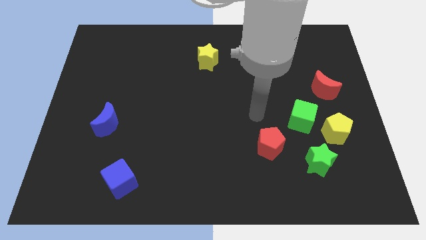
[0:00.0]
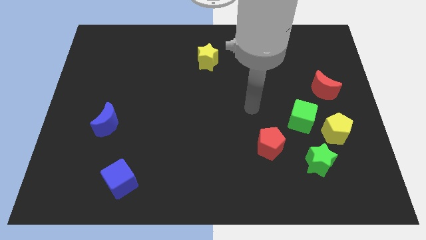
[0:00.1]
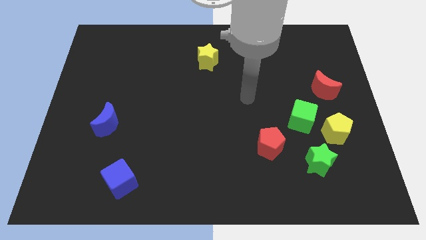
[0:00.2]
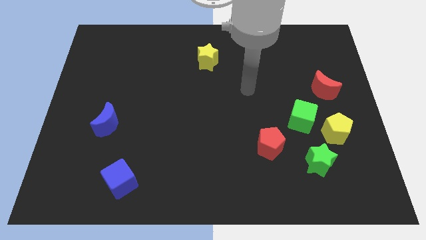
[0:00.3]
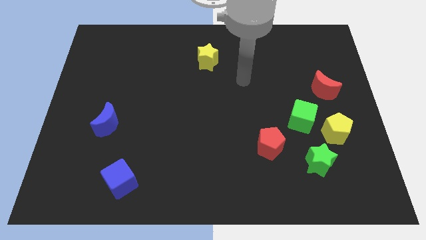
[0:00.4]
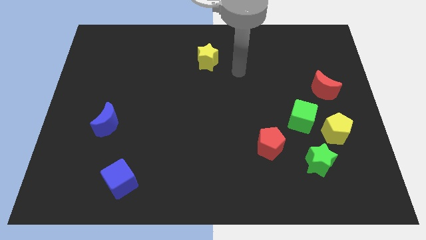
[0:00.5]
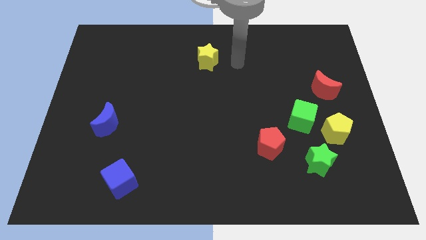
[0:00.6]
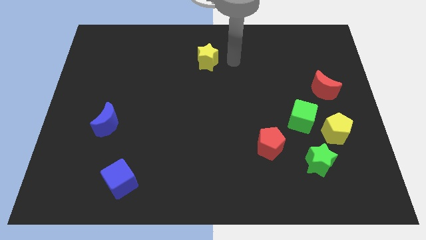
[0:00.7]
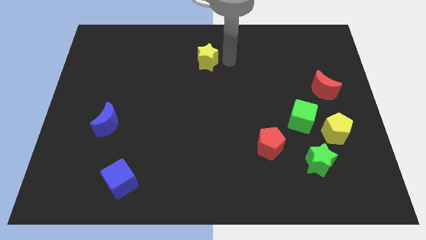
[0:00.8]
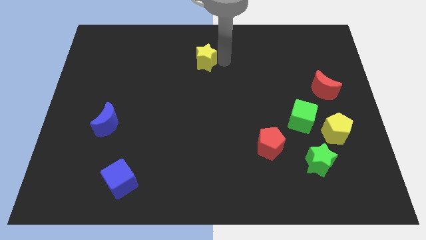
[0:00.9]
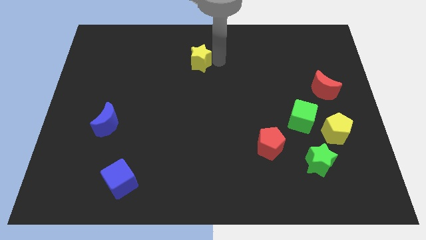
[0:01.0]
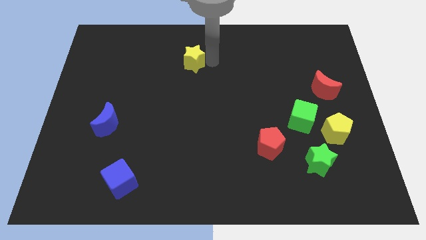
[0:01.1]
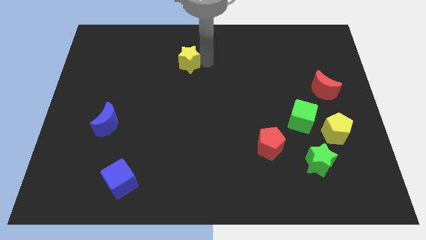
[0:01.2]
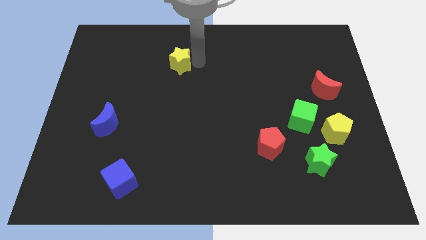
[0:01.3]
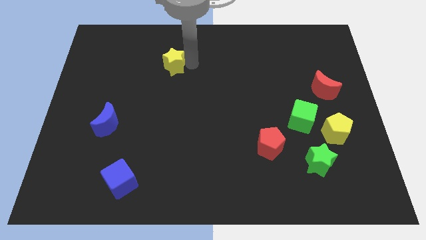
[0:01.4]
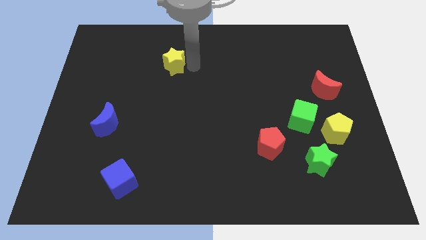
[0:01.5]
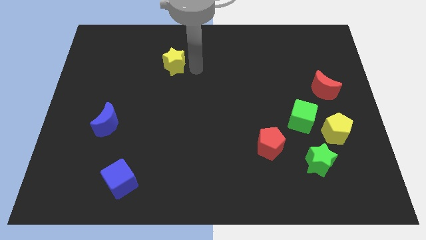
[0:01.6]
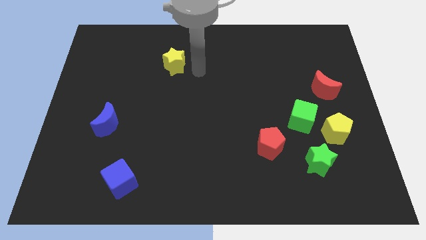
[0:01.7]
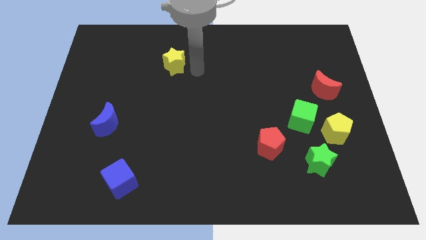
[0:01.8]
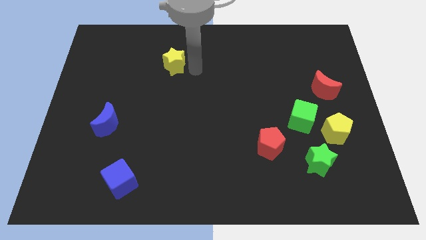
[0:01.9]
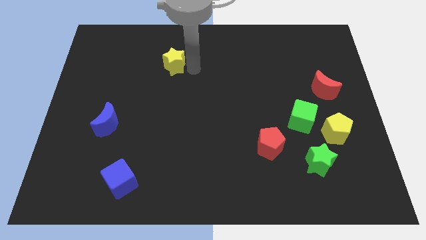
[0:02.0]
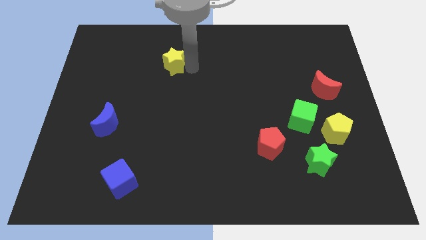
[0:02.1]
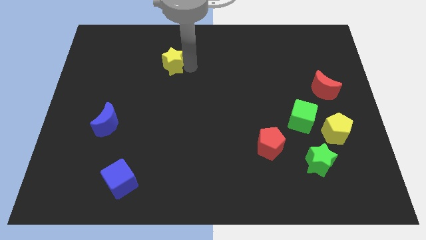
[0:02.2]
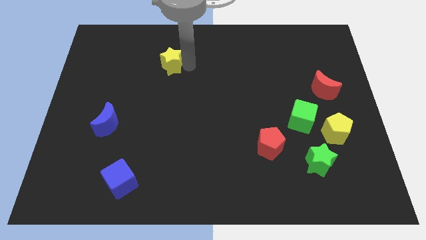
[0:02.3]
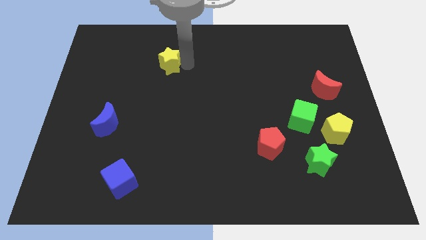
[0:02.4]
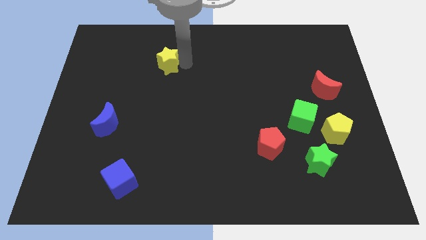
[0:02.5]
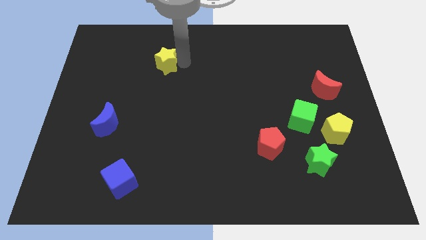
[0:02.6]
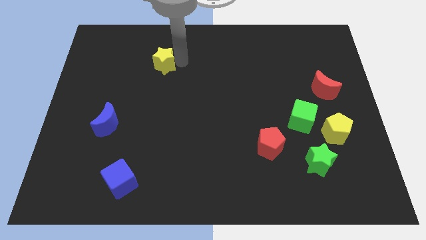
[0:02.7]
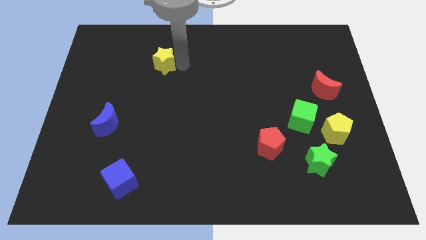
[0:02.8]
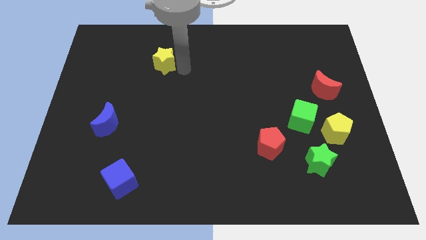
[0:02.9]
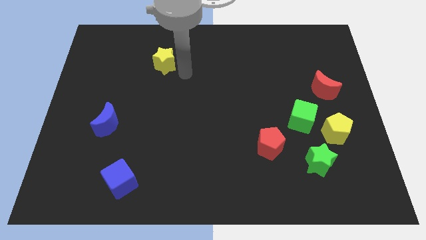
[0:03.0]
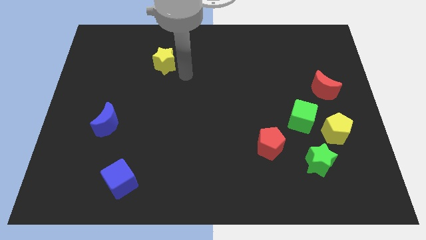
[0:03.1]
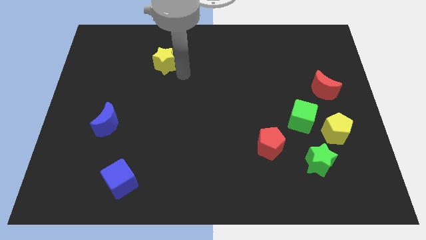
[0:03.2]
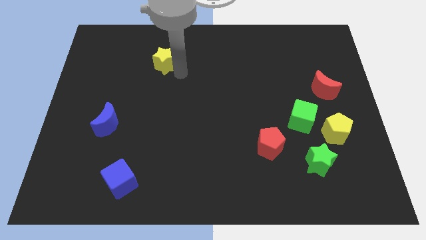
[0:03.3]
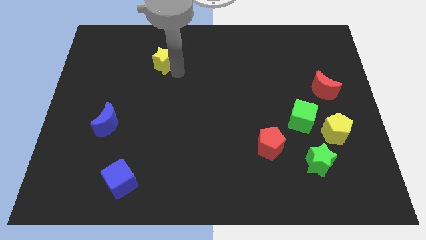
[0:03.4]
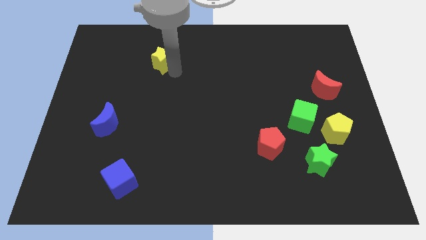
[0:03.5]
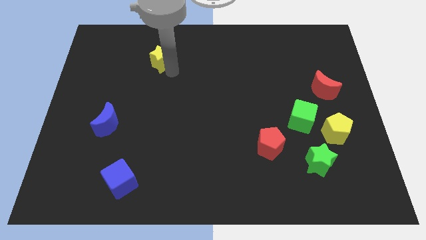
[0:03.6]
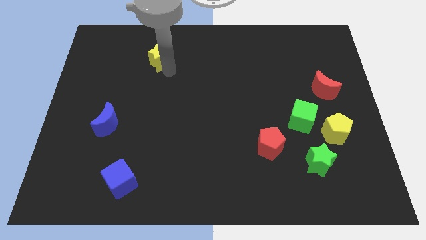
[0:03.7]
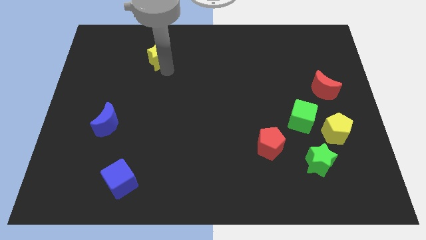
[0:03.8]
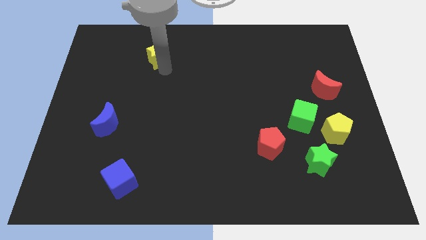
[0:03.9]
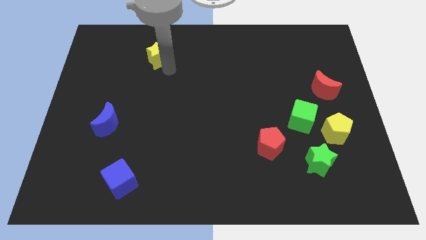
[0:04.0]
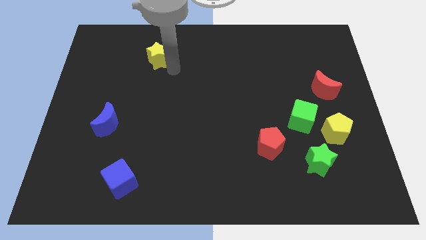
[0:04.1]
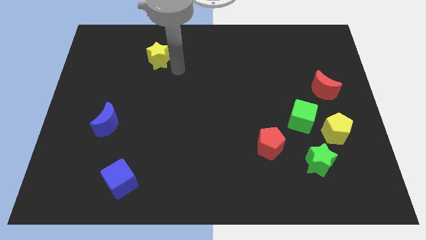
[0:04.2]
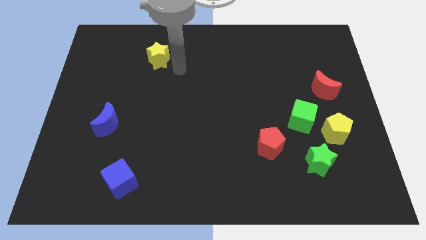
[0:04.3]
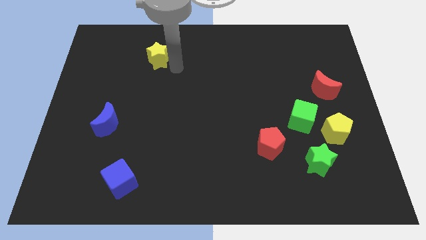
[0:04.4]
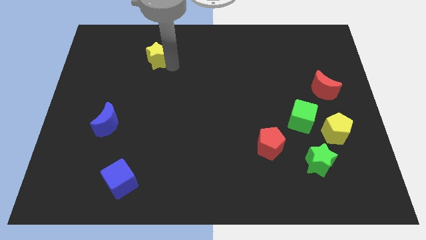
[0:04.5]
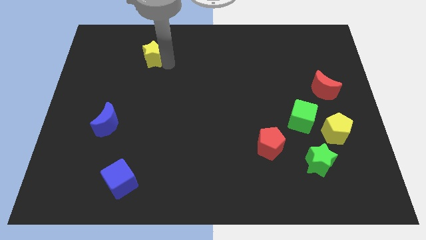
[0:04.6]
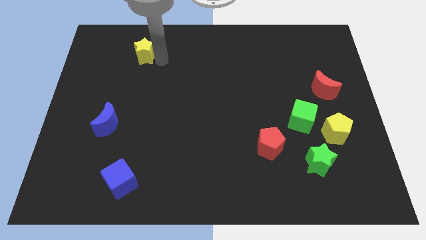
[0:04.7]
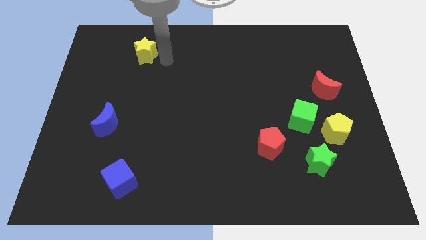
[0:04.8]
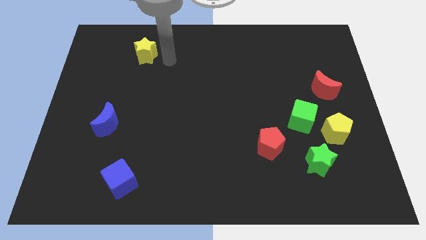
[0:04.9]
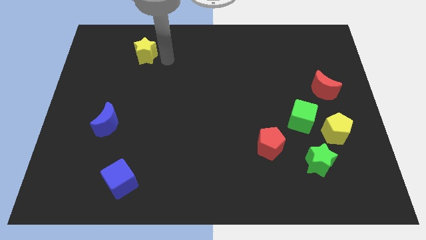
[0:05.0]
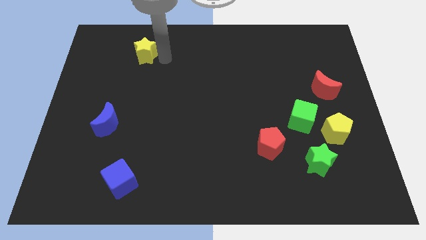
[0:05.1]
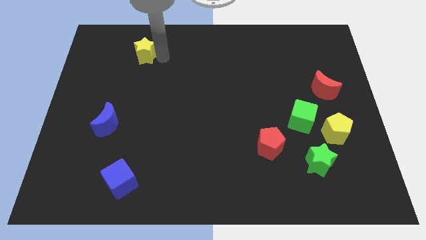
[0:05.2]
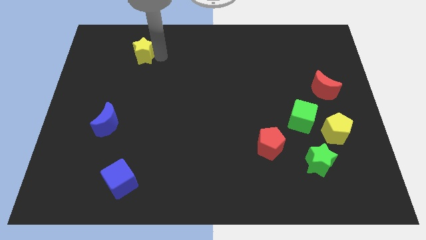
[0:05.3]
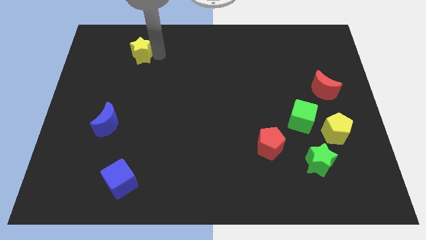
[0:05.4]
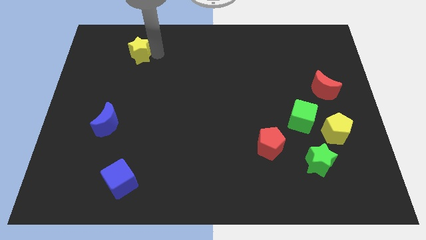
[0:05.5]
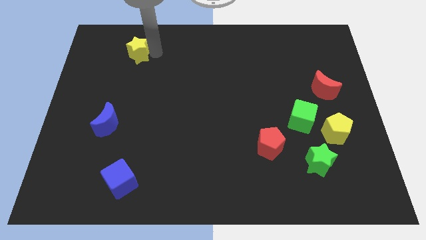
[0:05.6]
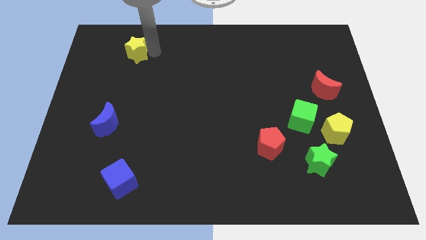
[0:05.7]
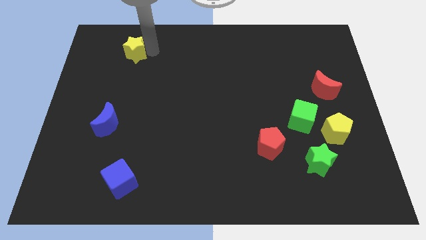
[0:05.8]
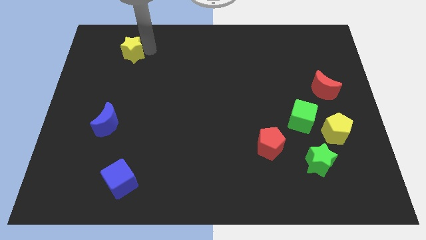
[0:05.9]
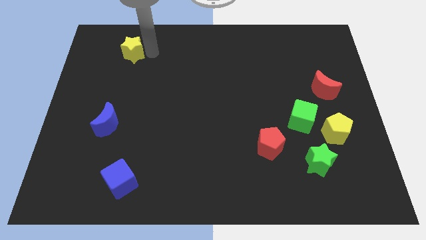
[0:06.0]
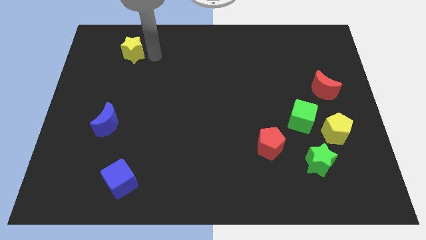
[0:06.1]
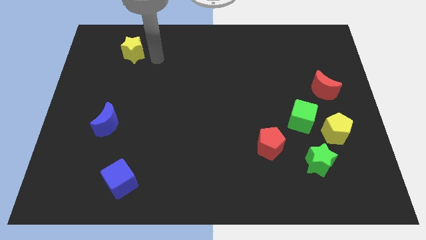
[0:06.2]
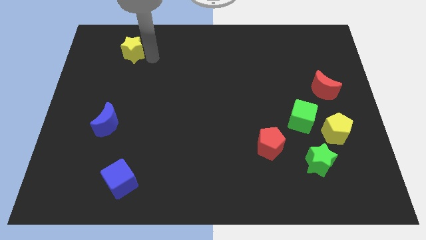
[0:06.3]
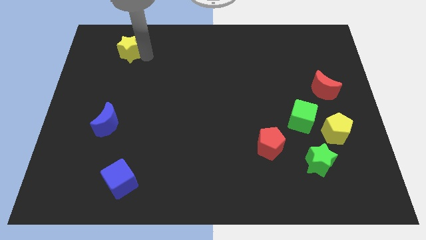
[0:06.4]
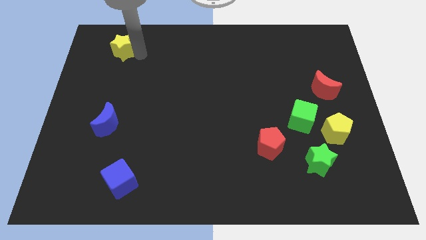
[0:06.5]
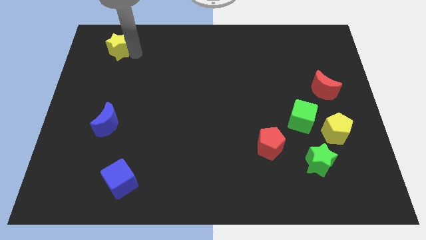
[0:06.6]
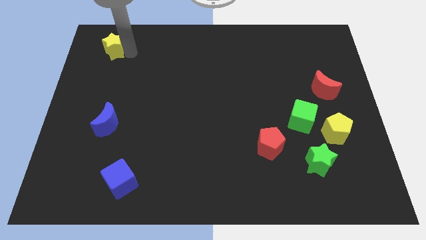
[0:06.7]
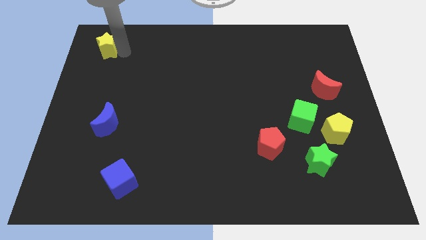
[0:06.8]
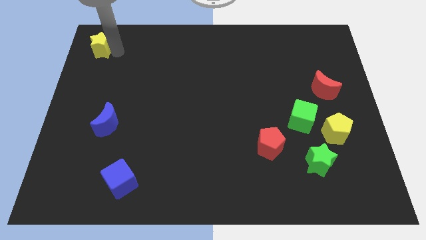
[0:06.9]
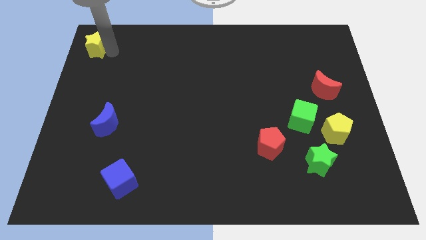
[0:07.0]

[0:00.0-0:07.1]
push the yellow star to the upper left corner
